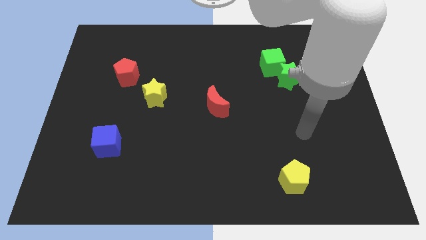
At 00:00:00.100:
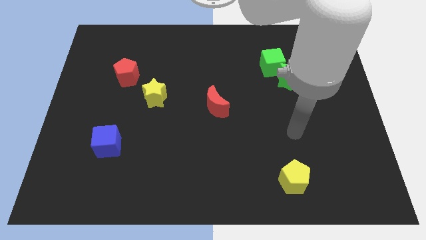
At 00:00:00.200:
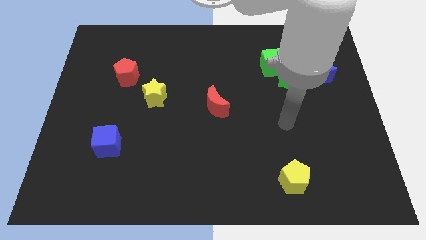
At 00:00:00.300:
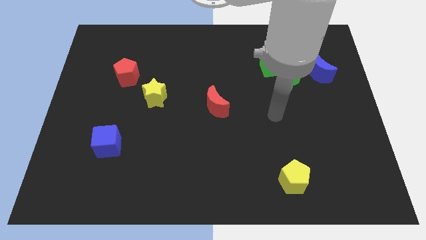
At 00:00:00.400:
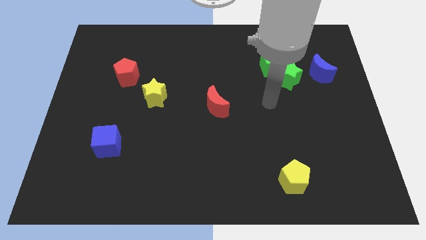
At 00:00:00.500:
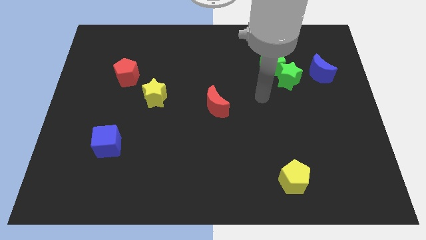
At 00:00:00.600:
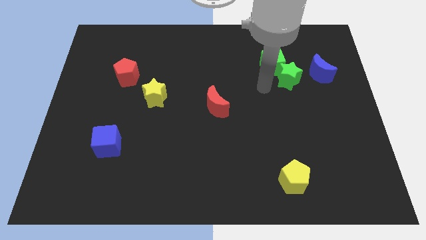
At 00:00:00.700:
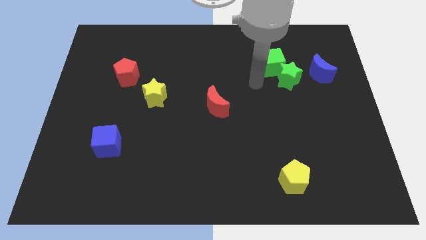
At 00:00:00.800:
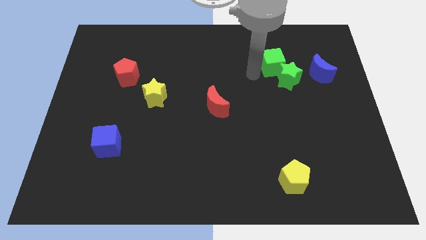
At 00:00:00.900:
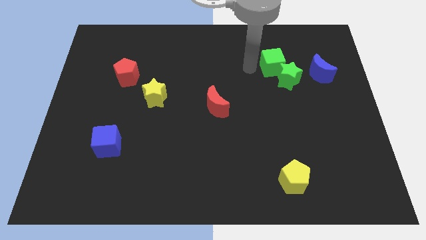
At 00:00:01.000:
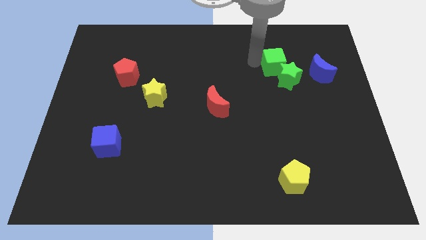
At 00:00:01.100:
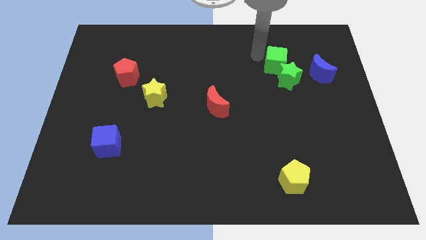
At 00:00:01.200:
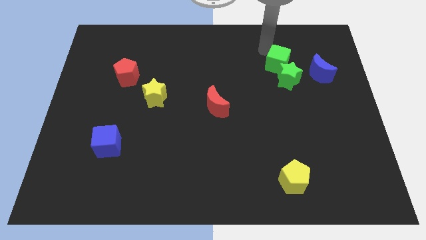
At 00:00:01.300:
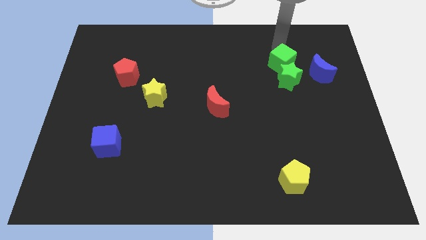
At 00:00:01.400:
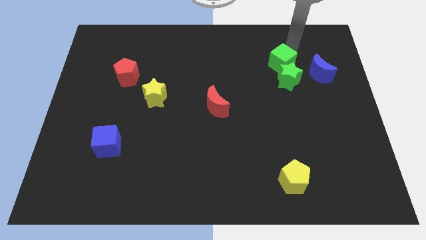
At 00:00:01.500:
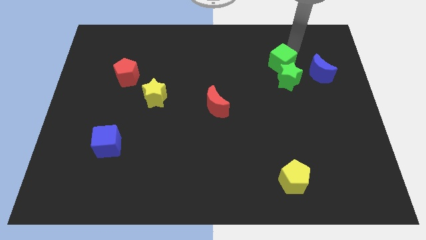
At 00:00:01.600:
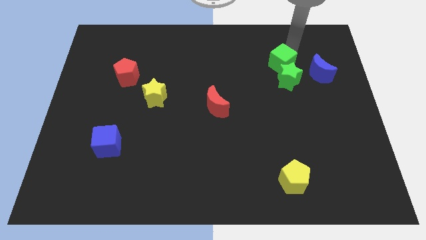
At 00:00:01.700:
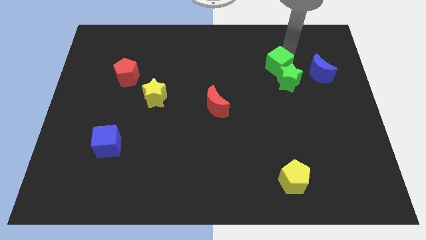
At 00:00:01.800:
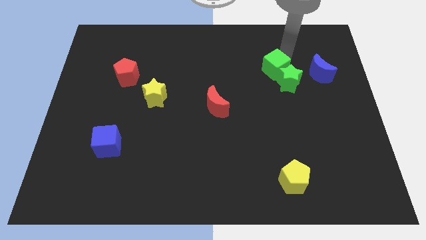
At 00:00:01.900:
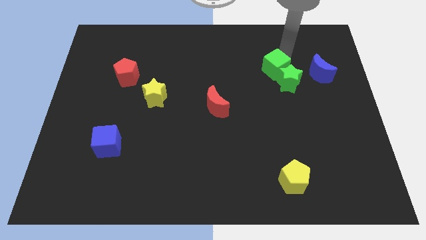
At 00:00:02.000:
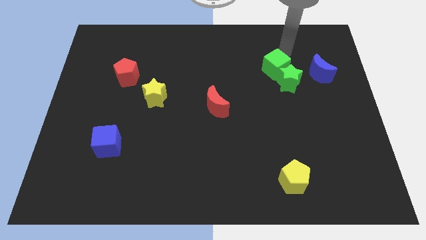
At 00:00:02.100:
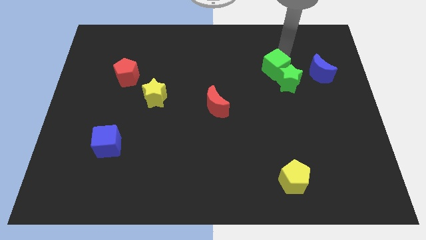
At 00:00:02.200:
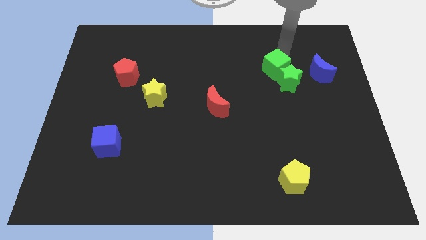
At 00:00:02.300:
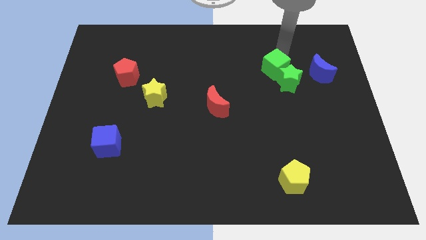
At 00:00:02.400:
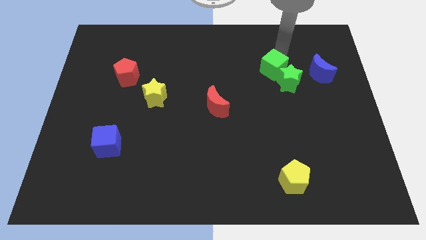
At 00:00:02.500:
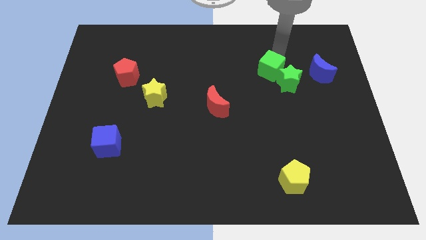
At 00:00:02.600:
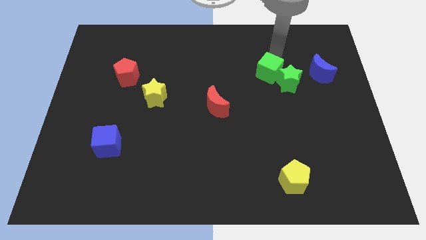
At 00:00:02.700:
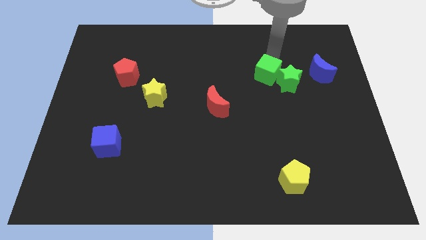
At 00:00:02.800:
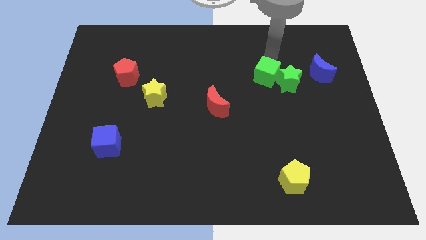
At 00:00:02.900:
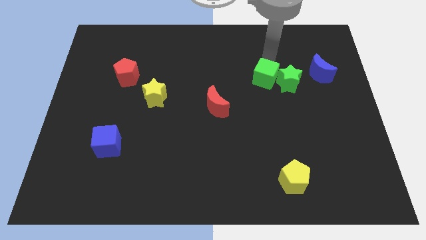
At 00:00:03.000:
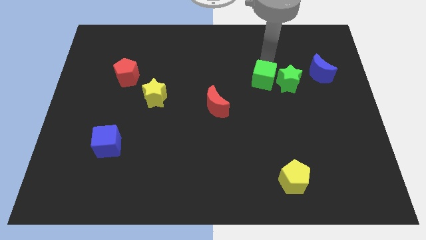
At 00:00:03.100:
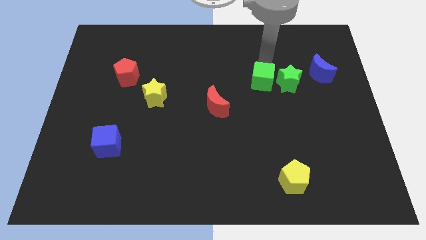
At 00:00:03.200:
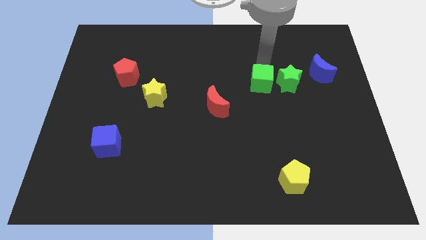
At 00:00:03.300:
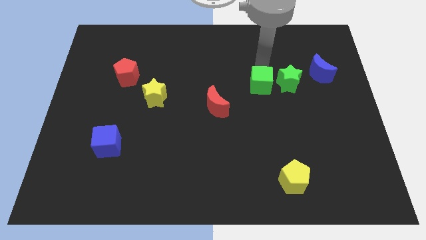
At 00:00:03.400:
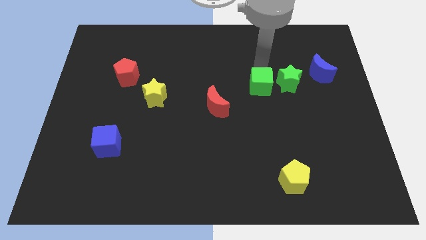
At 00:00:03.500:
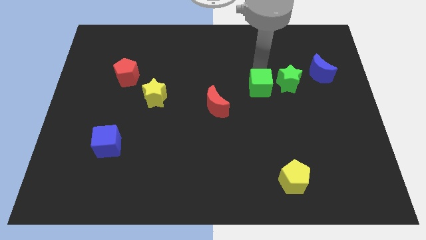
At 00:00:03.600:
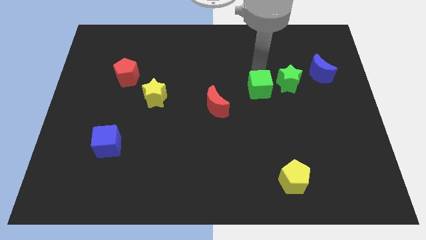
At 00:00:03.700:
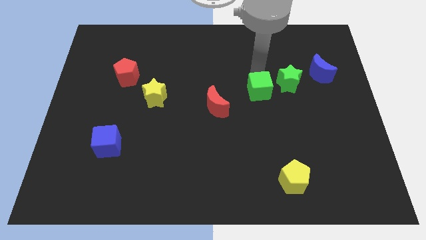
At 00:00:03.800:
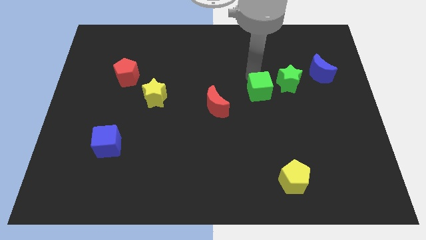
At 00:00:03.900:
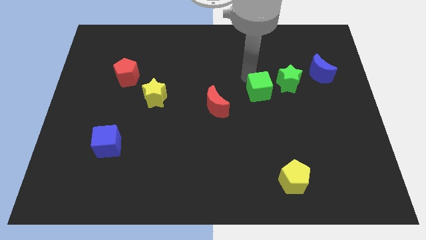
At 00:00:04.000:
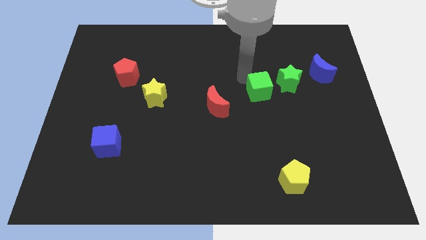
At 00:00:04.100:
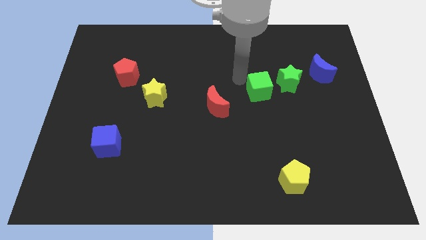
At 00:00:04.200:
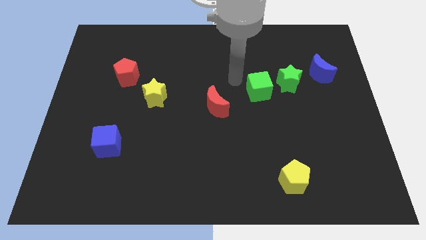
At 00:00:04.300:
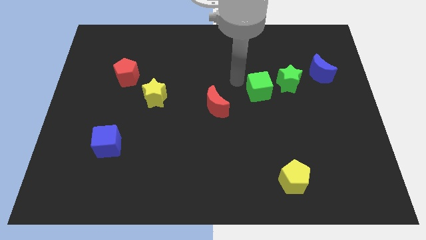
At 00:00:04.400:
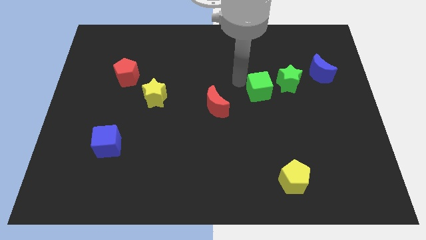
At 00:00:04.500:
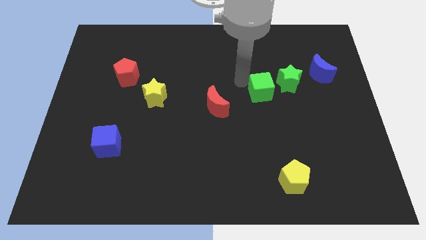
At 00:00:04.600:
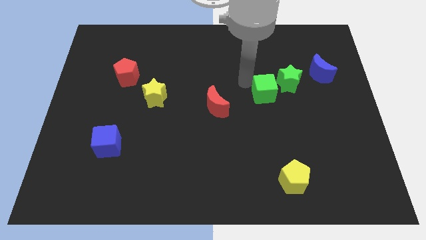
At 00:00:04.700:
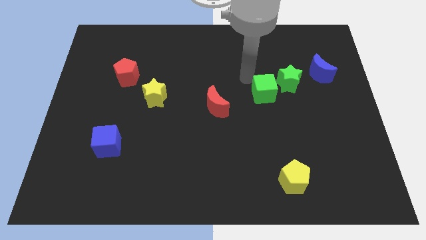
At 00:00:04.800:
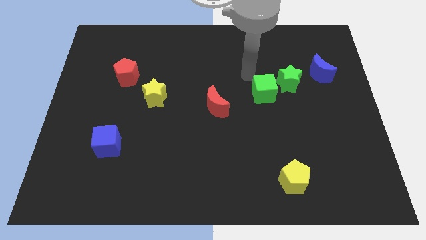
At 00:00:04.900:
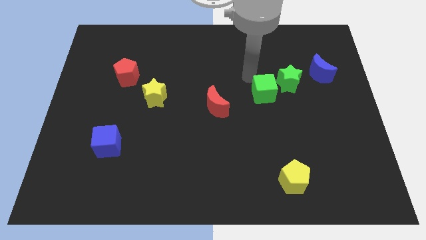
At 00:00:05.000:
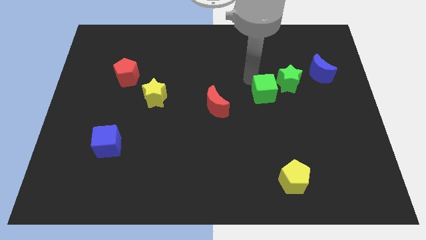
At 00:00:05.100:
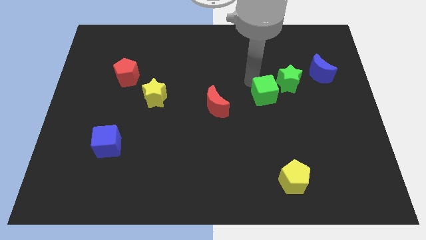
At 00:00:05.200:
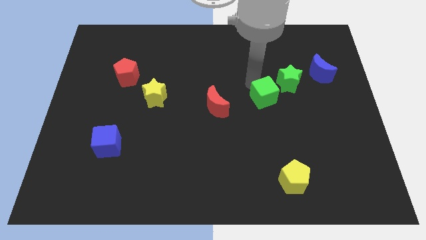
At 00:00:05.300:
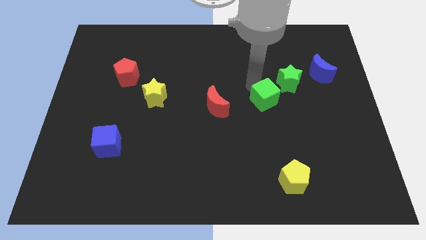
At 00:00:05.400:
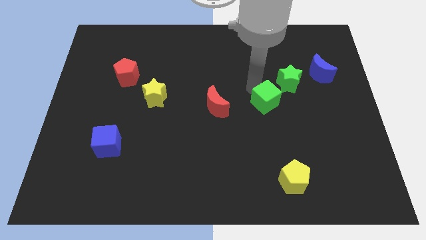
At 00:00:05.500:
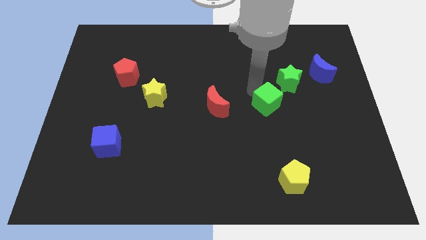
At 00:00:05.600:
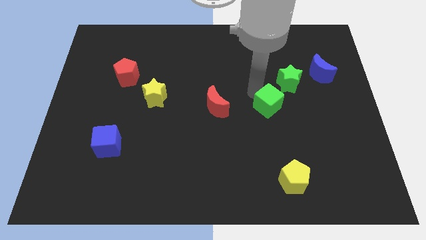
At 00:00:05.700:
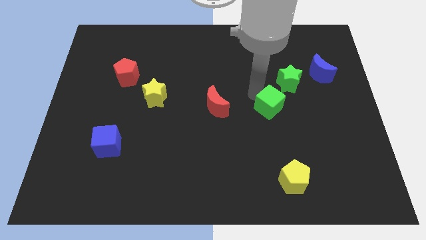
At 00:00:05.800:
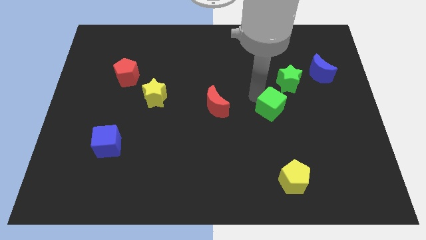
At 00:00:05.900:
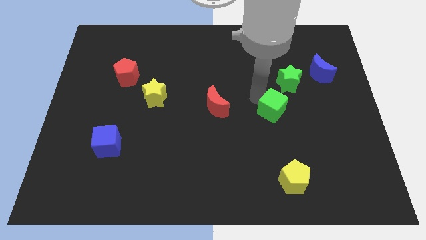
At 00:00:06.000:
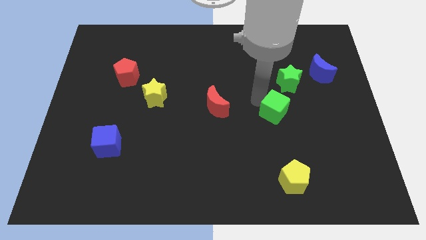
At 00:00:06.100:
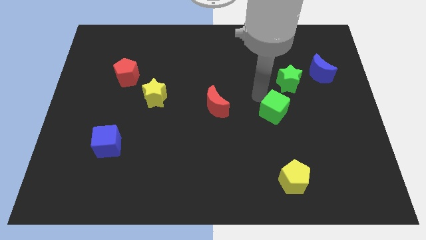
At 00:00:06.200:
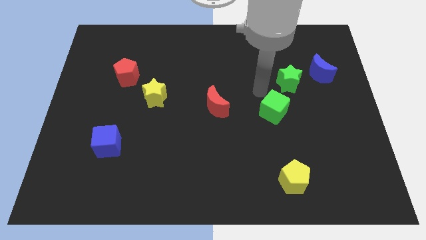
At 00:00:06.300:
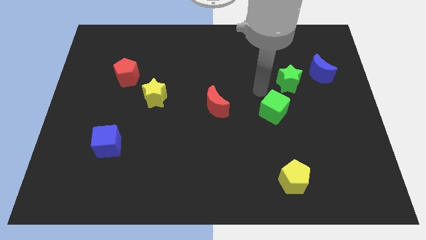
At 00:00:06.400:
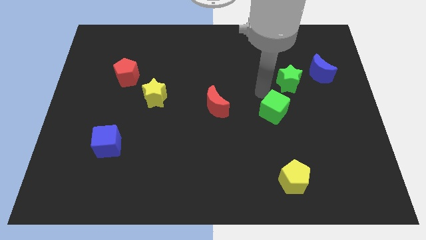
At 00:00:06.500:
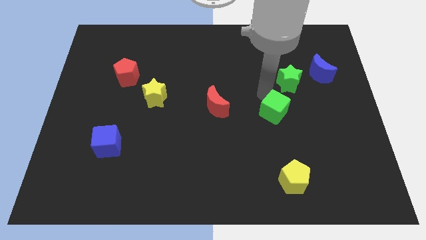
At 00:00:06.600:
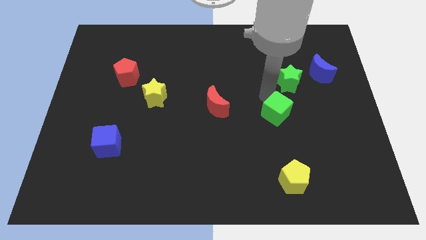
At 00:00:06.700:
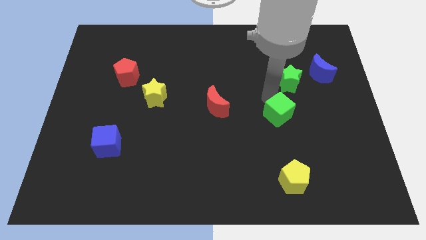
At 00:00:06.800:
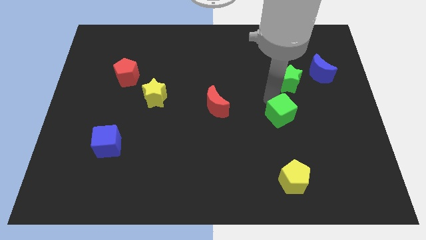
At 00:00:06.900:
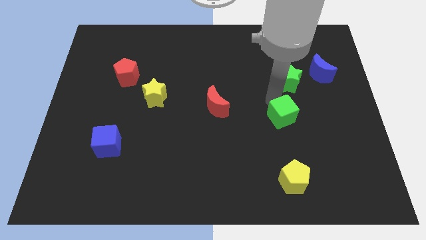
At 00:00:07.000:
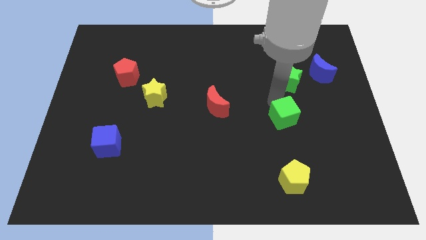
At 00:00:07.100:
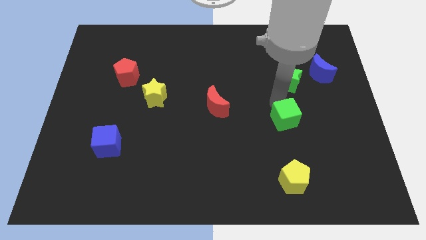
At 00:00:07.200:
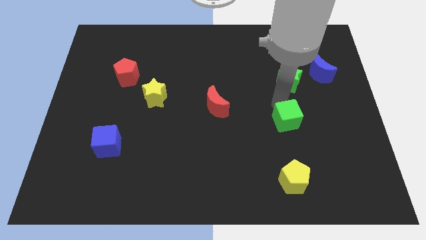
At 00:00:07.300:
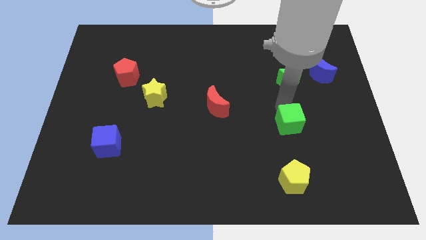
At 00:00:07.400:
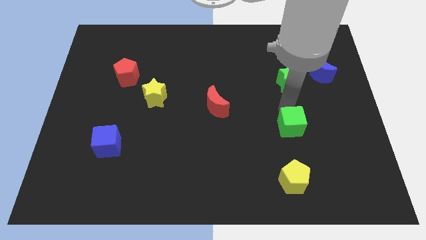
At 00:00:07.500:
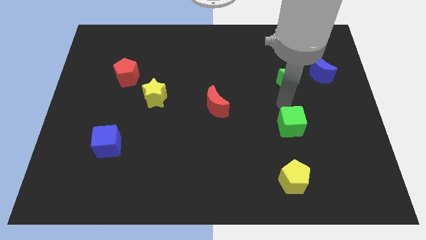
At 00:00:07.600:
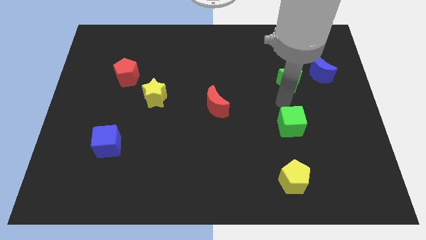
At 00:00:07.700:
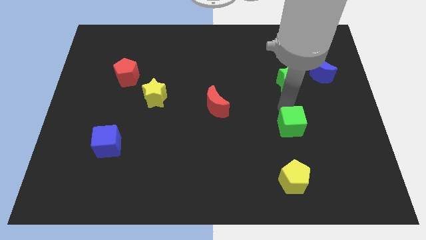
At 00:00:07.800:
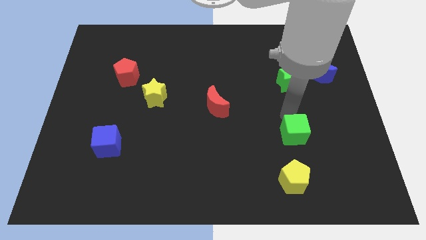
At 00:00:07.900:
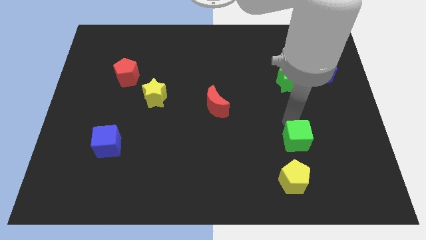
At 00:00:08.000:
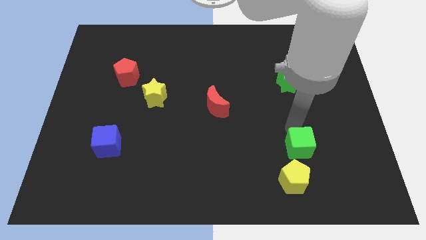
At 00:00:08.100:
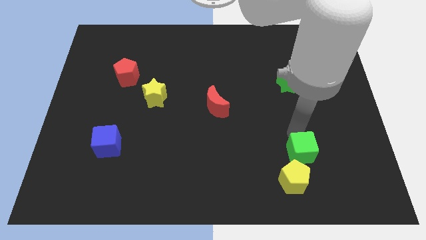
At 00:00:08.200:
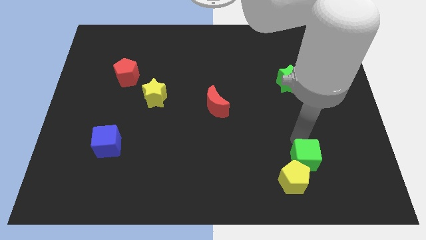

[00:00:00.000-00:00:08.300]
slide the green cube to the yellow pentagon
